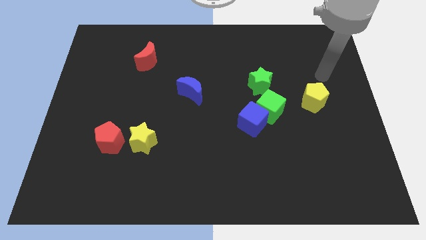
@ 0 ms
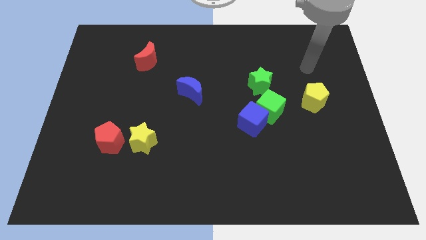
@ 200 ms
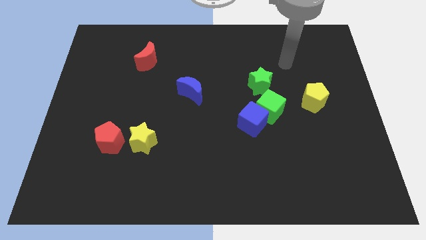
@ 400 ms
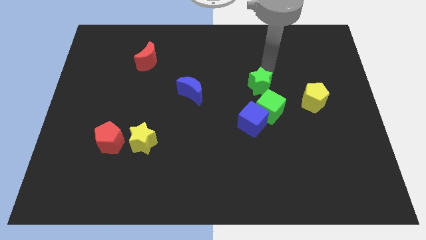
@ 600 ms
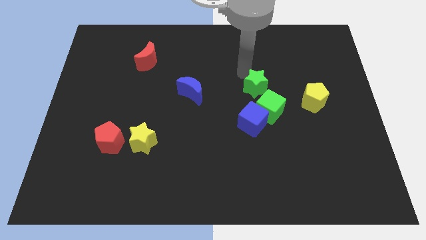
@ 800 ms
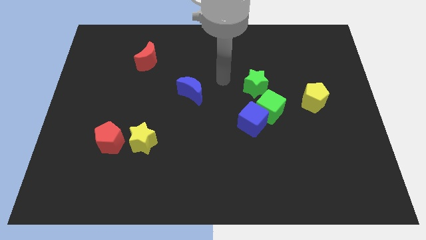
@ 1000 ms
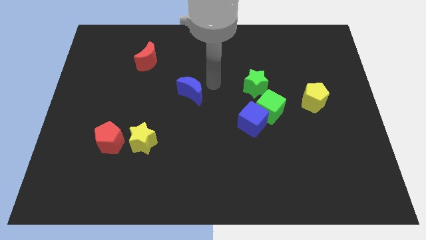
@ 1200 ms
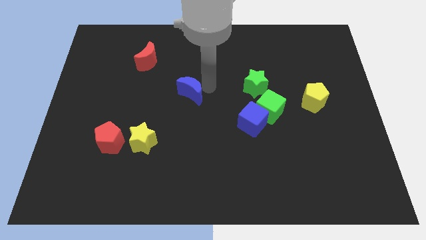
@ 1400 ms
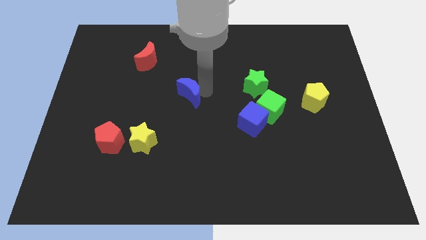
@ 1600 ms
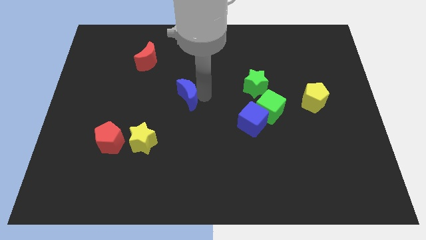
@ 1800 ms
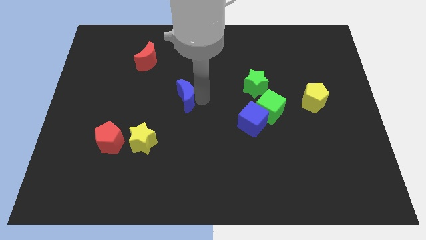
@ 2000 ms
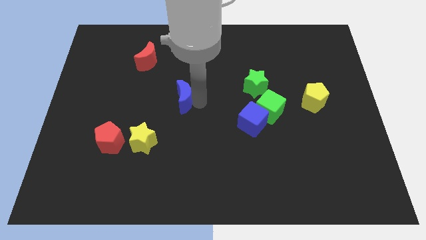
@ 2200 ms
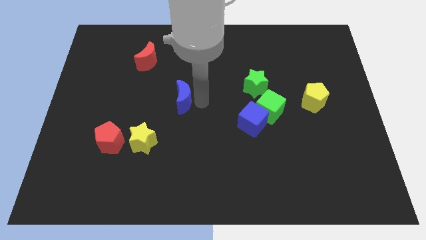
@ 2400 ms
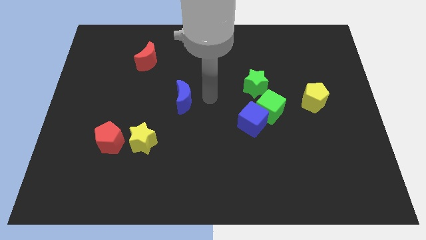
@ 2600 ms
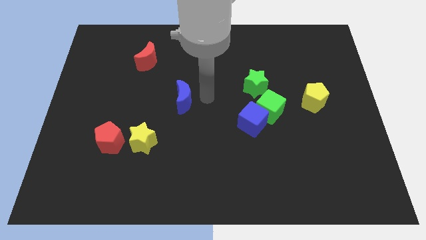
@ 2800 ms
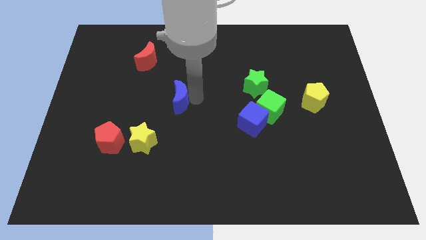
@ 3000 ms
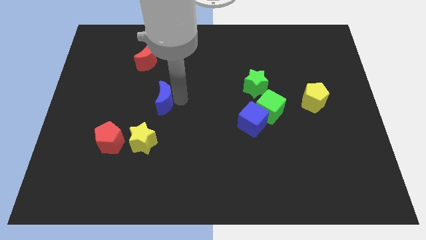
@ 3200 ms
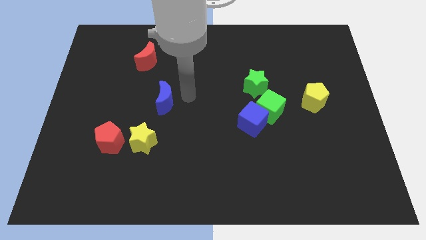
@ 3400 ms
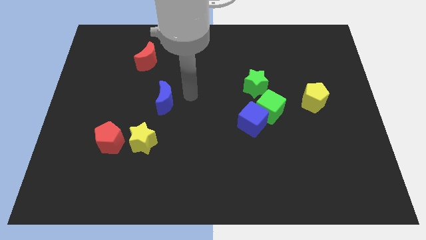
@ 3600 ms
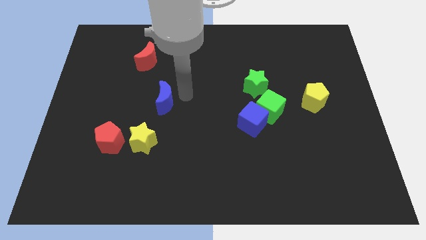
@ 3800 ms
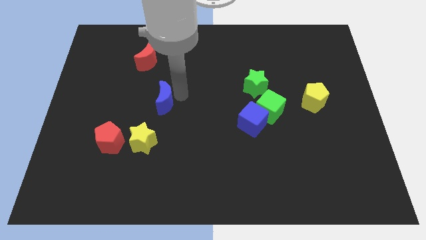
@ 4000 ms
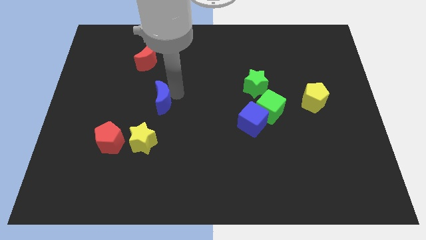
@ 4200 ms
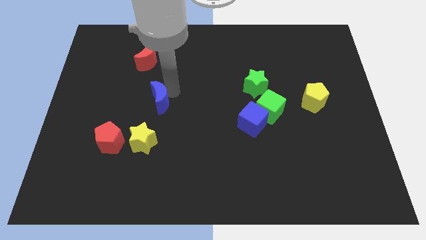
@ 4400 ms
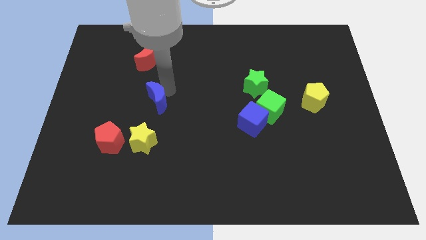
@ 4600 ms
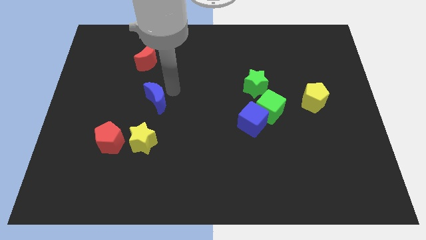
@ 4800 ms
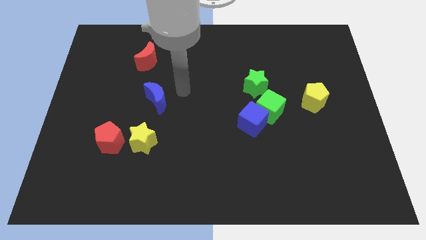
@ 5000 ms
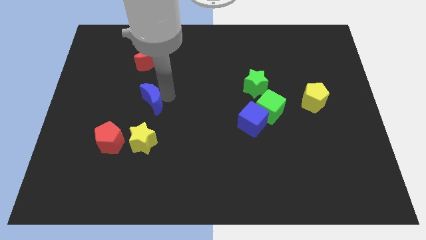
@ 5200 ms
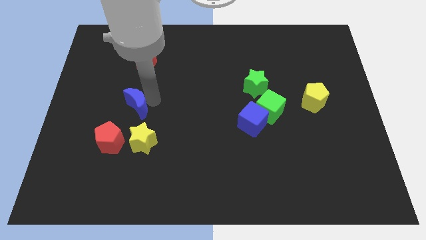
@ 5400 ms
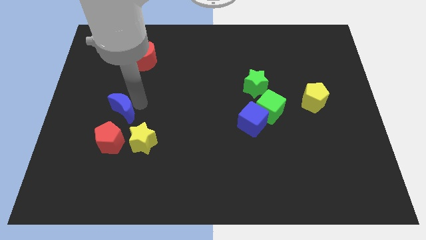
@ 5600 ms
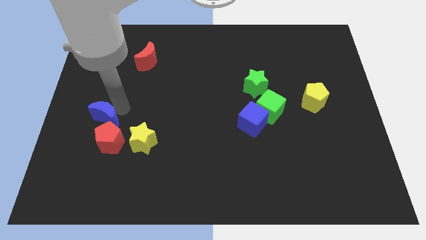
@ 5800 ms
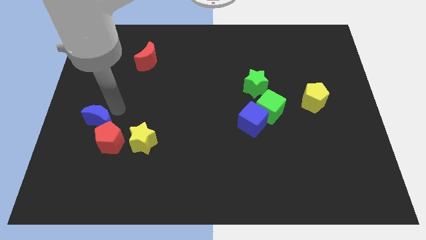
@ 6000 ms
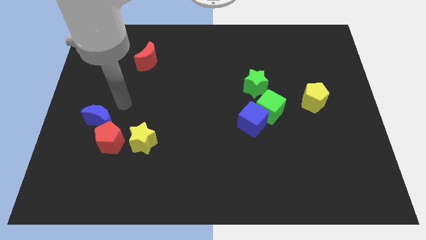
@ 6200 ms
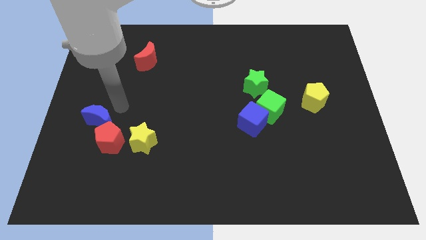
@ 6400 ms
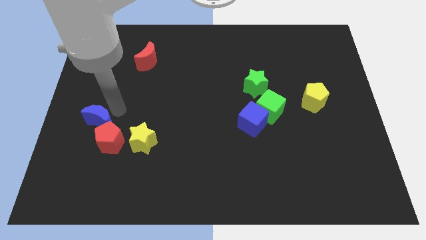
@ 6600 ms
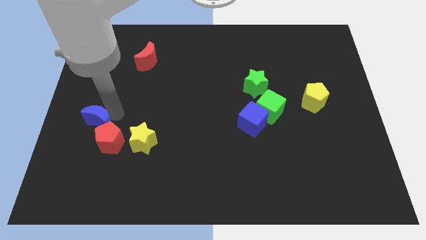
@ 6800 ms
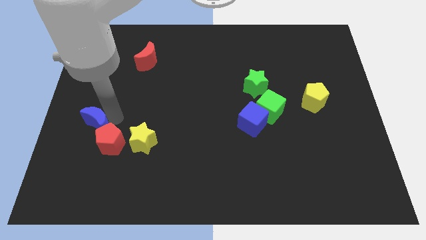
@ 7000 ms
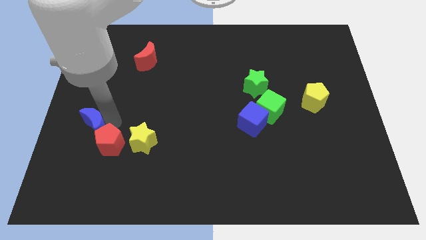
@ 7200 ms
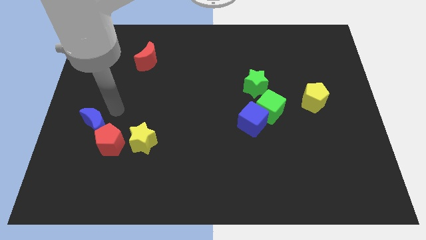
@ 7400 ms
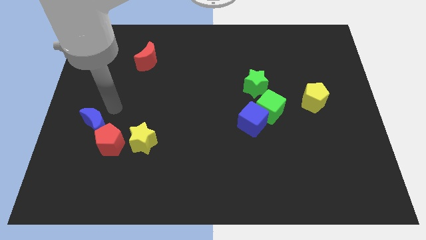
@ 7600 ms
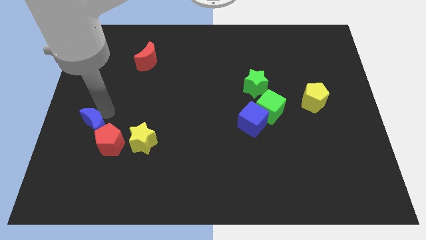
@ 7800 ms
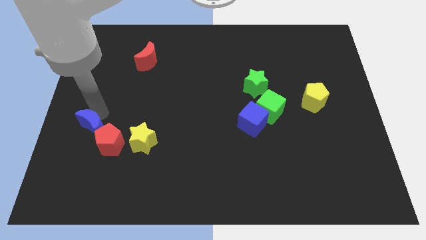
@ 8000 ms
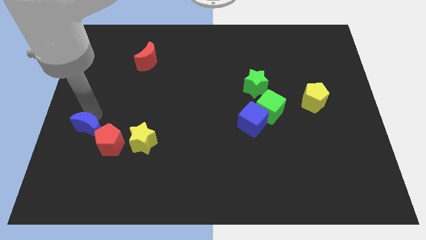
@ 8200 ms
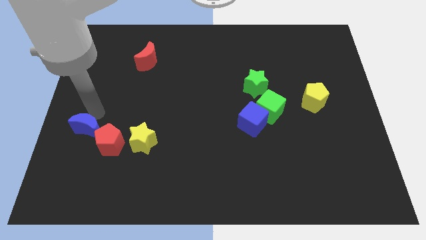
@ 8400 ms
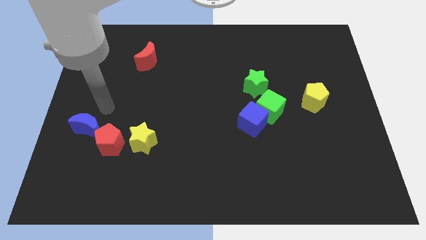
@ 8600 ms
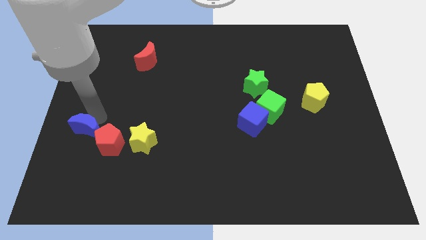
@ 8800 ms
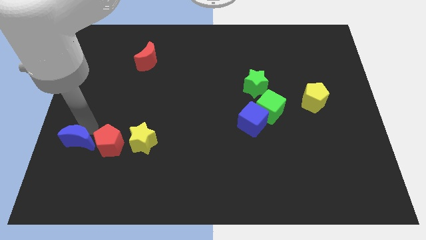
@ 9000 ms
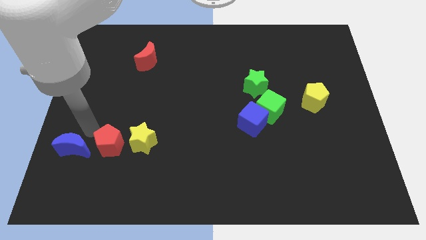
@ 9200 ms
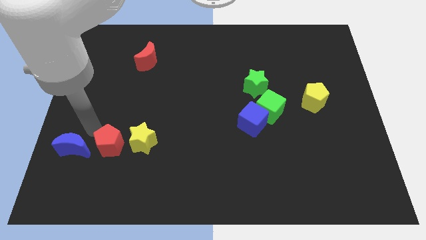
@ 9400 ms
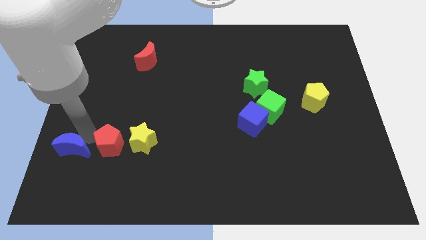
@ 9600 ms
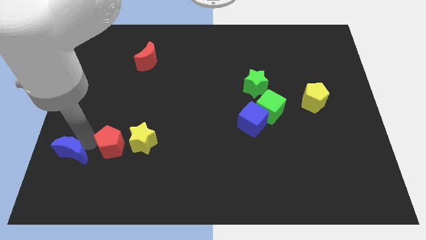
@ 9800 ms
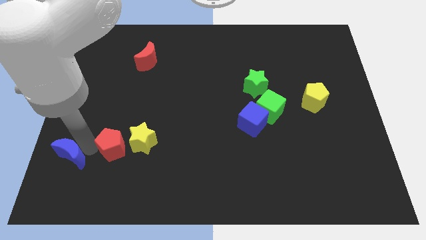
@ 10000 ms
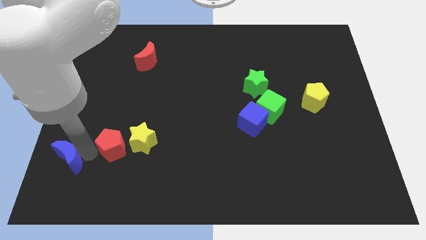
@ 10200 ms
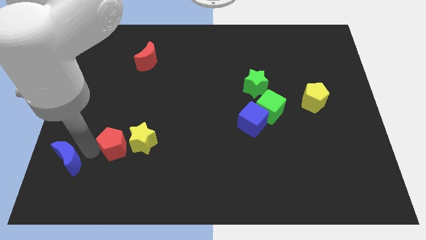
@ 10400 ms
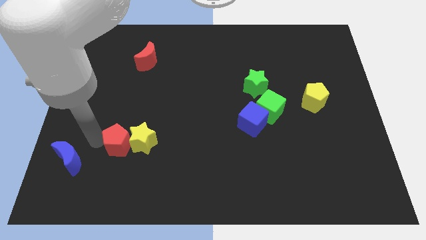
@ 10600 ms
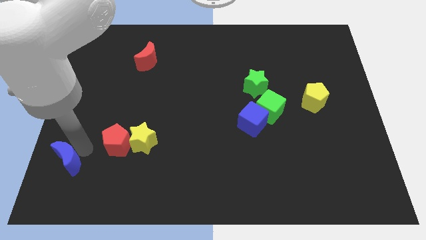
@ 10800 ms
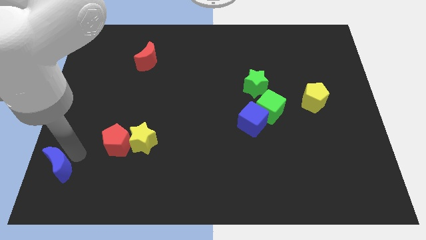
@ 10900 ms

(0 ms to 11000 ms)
move the blue moon to the bottom left

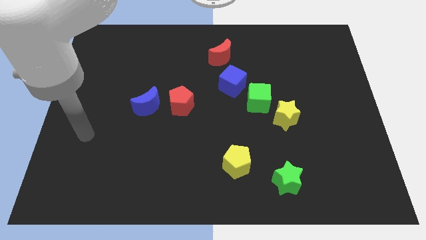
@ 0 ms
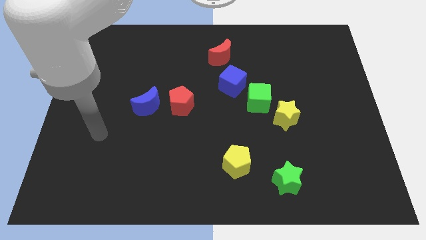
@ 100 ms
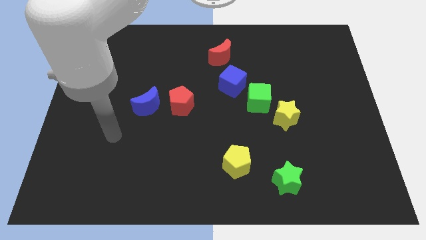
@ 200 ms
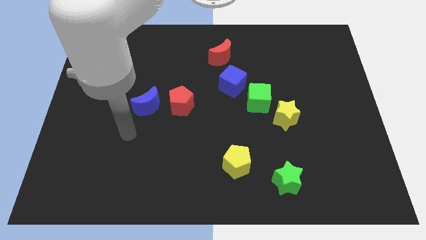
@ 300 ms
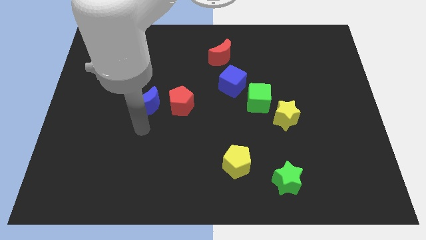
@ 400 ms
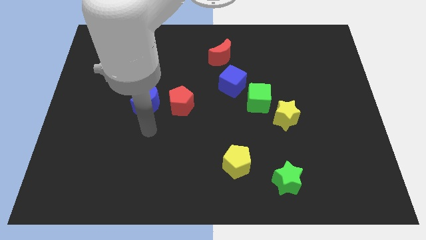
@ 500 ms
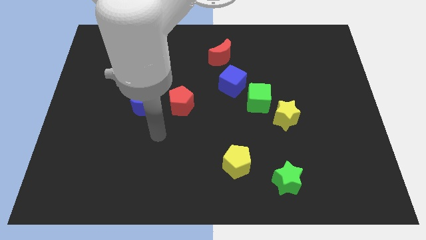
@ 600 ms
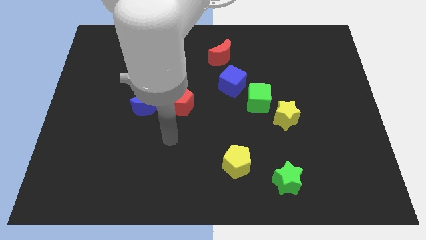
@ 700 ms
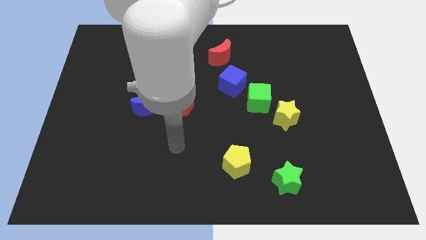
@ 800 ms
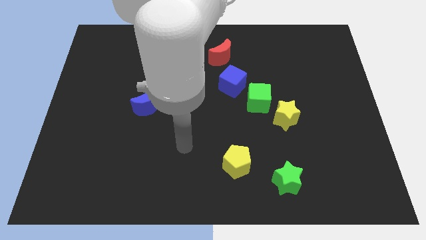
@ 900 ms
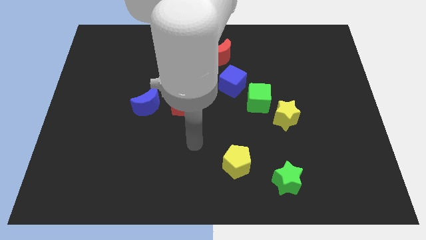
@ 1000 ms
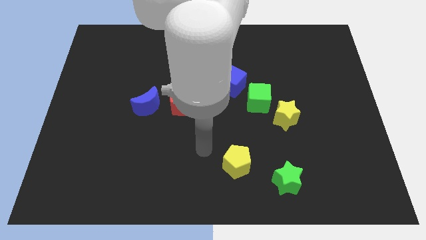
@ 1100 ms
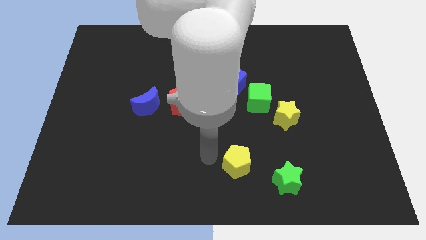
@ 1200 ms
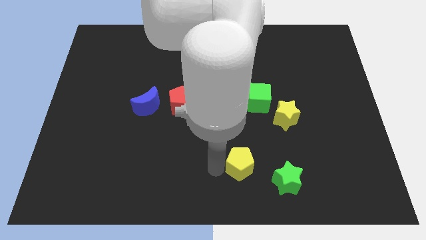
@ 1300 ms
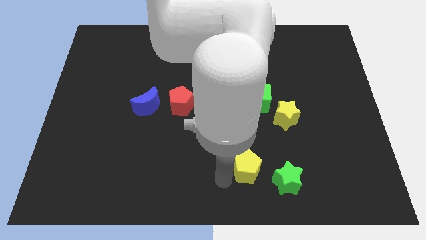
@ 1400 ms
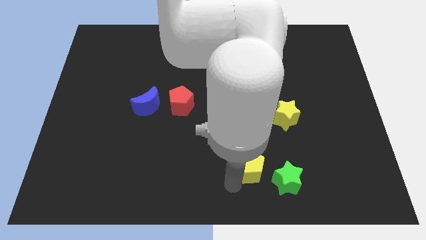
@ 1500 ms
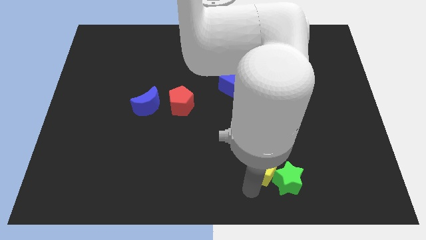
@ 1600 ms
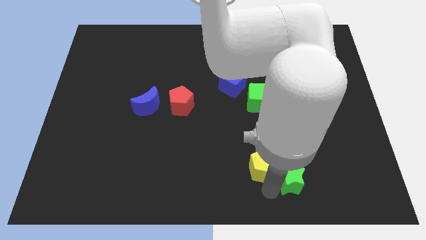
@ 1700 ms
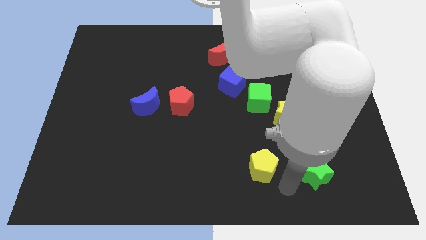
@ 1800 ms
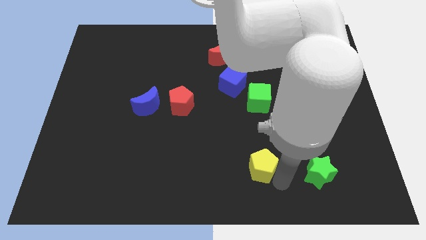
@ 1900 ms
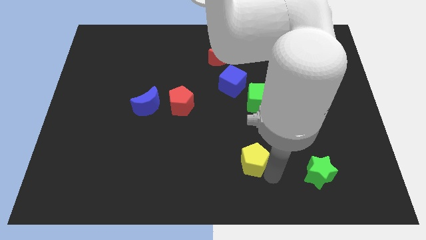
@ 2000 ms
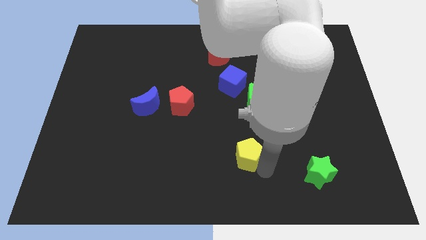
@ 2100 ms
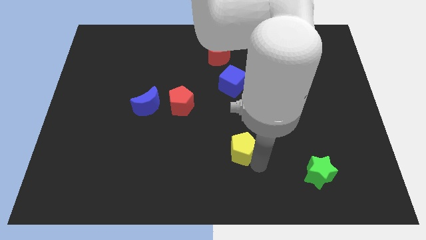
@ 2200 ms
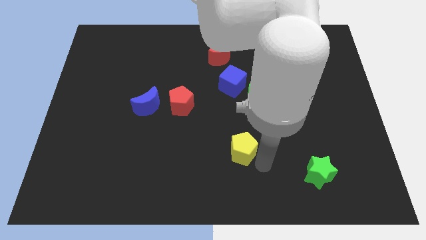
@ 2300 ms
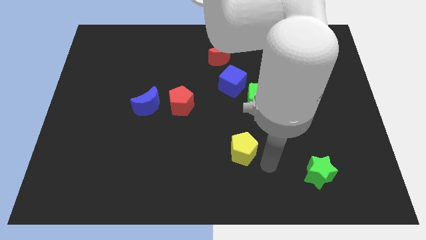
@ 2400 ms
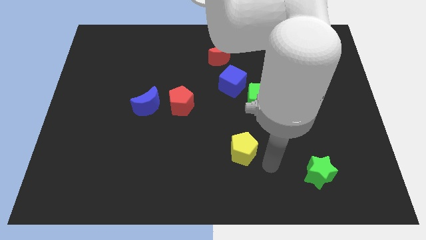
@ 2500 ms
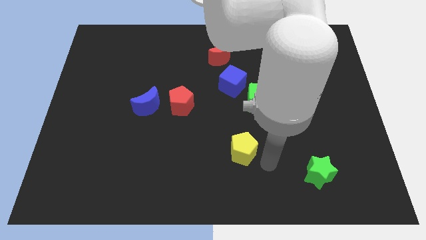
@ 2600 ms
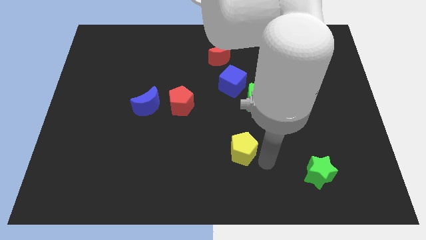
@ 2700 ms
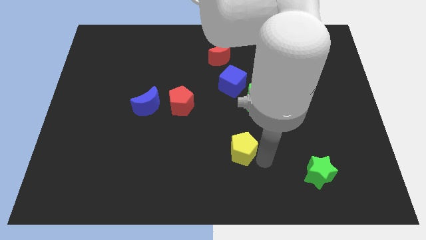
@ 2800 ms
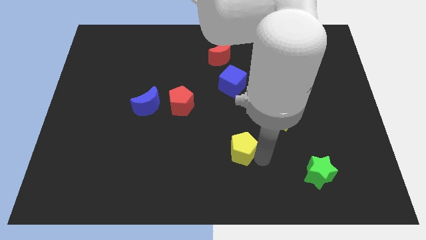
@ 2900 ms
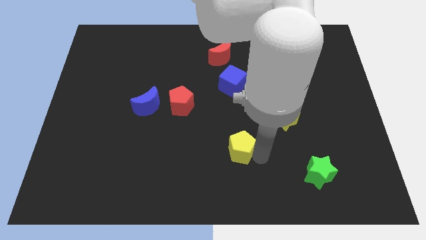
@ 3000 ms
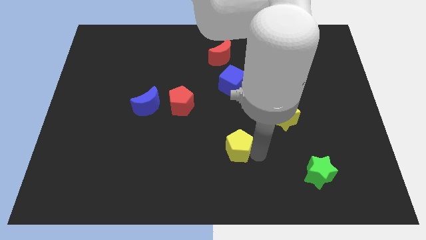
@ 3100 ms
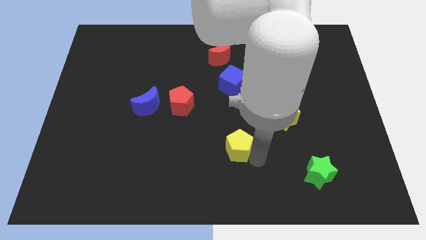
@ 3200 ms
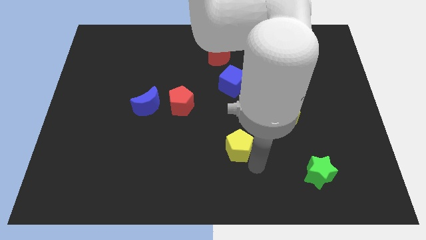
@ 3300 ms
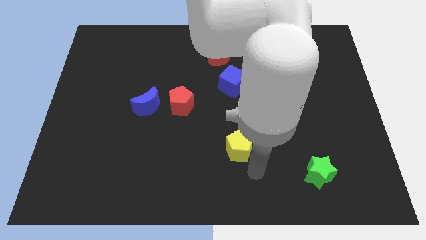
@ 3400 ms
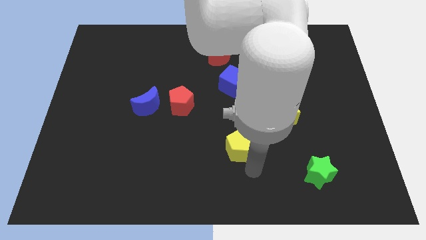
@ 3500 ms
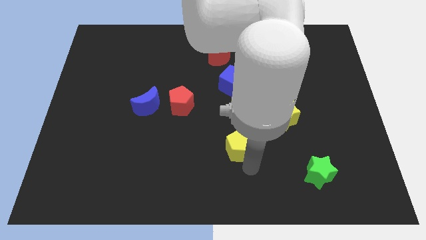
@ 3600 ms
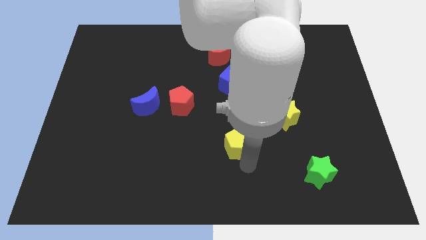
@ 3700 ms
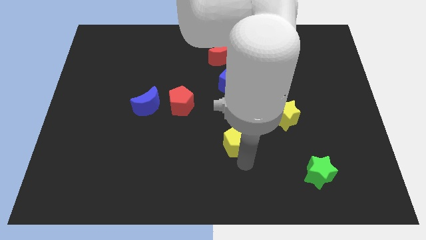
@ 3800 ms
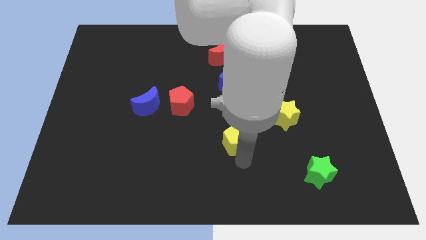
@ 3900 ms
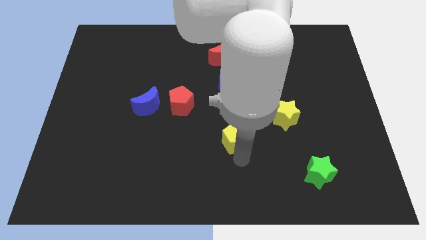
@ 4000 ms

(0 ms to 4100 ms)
push the yellow pentagon to the center
